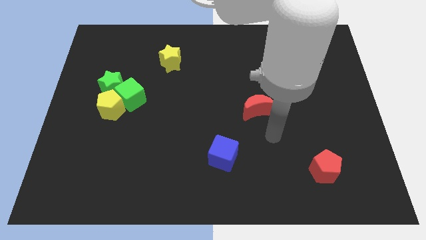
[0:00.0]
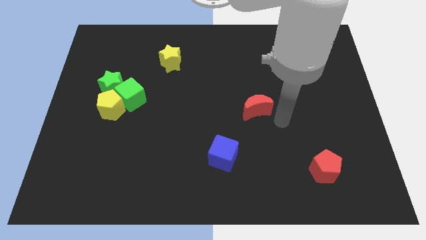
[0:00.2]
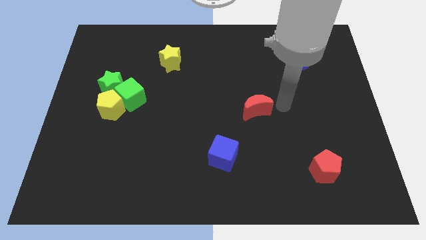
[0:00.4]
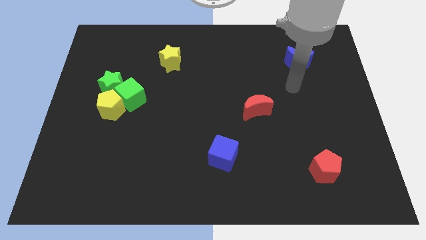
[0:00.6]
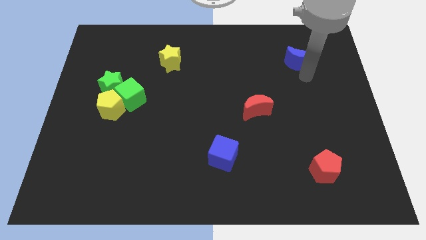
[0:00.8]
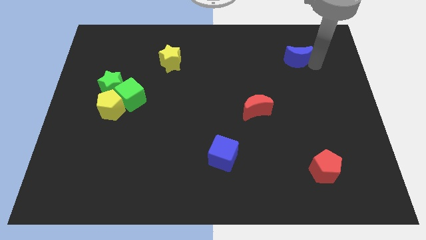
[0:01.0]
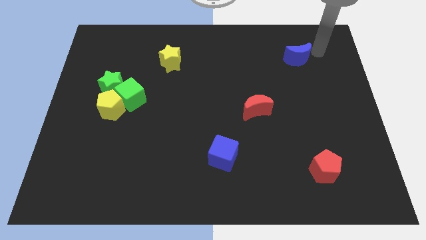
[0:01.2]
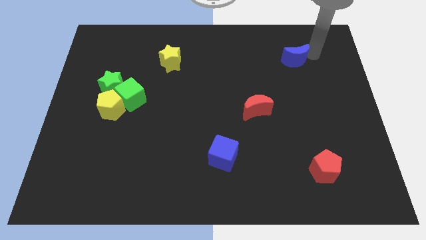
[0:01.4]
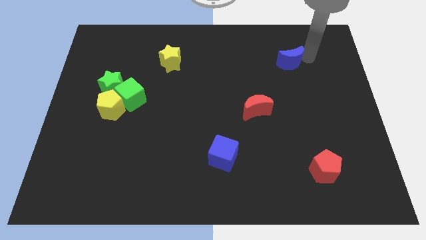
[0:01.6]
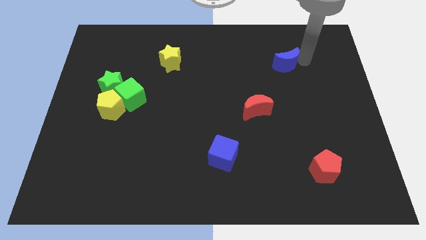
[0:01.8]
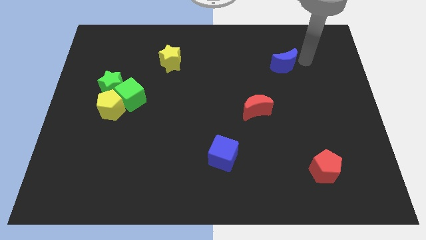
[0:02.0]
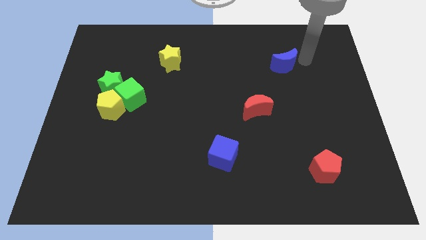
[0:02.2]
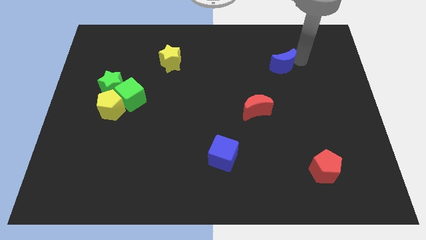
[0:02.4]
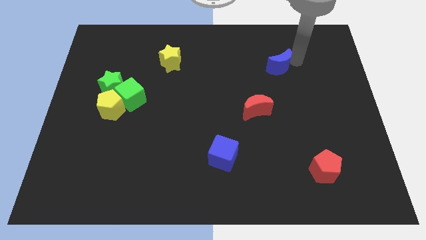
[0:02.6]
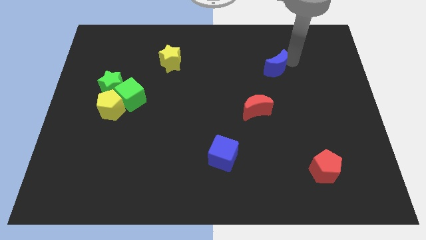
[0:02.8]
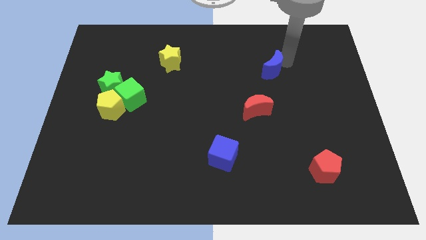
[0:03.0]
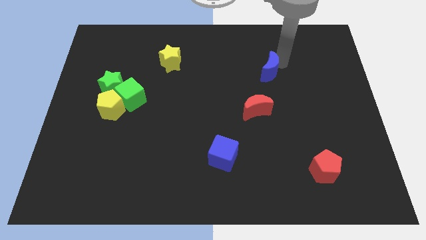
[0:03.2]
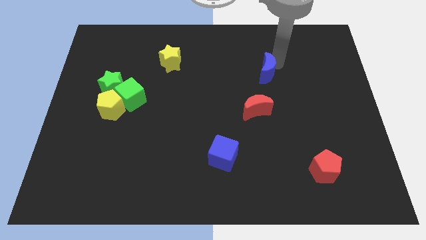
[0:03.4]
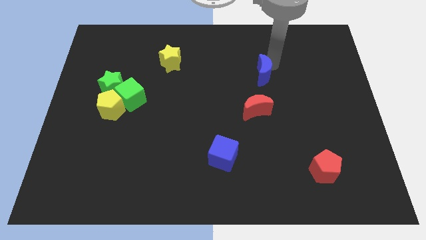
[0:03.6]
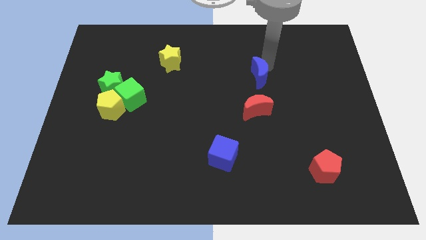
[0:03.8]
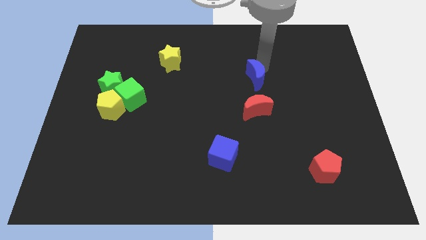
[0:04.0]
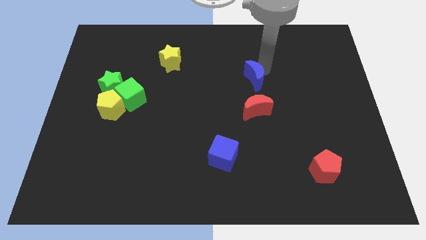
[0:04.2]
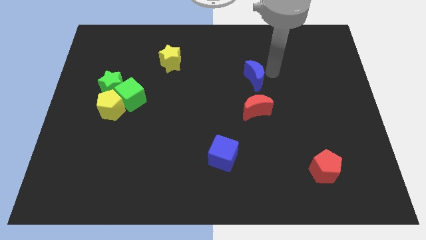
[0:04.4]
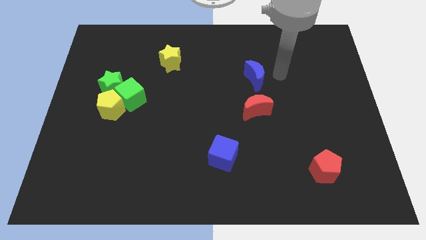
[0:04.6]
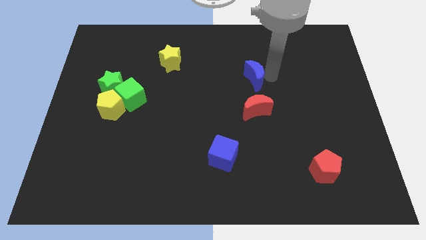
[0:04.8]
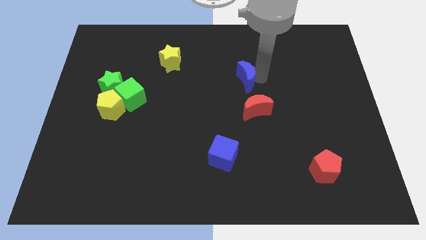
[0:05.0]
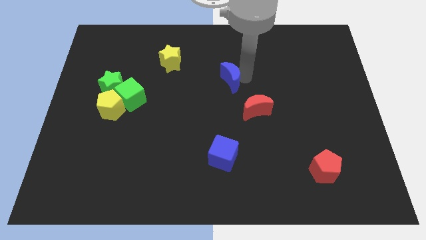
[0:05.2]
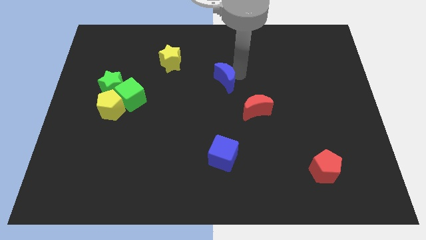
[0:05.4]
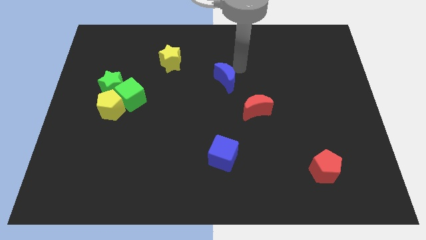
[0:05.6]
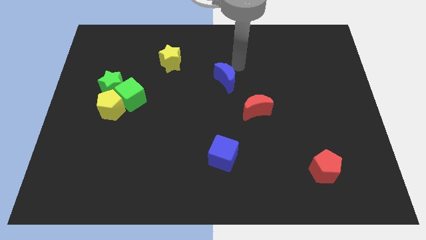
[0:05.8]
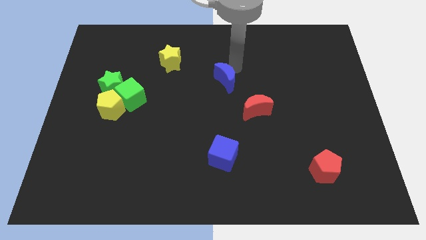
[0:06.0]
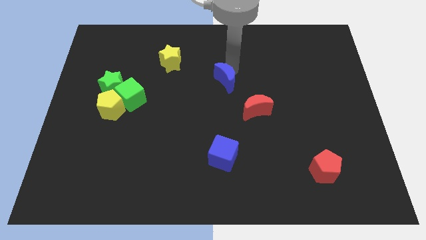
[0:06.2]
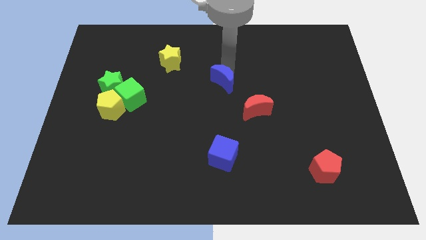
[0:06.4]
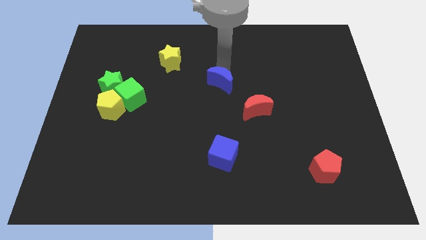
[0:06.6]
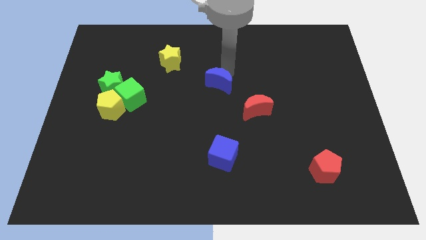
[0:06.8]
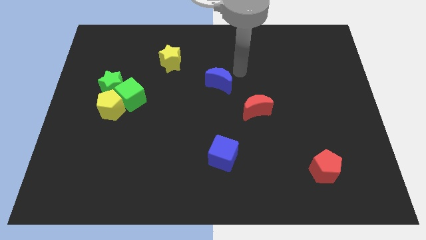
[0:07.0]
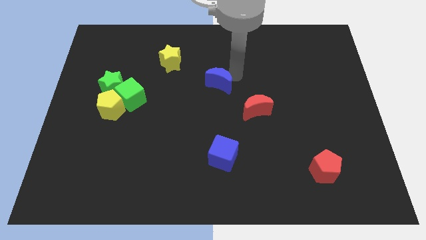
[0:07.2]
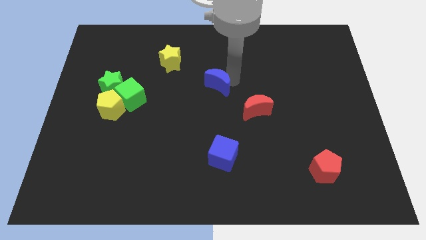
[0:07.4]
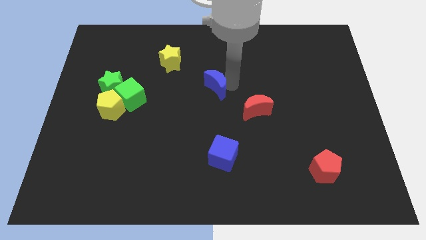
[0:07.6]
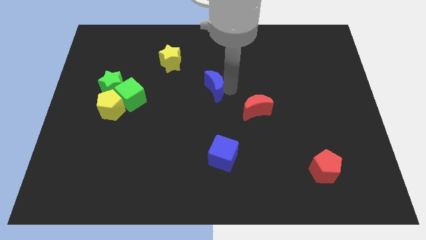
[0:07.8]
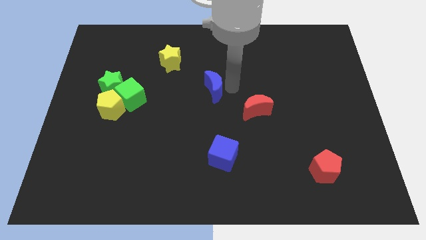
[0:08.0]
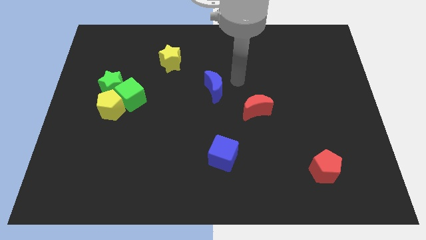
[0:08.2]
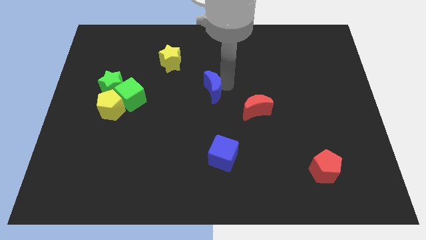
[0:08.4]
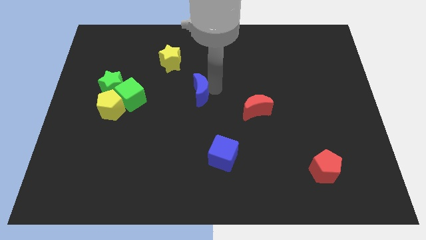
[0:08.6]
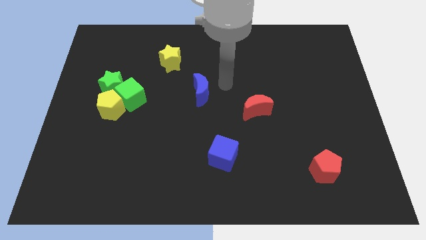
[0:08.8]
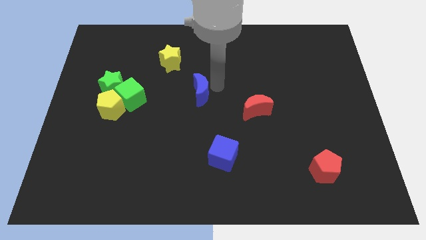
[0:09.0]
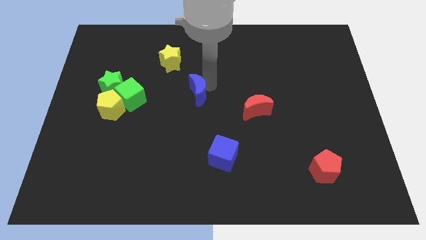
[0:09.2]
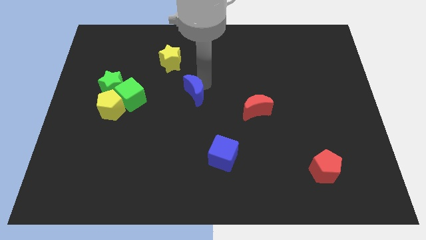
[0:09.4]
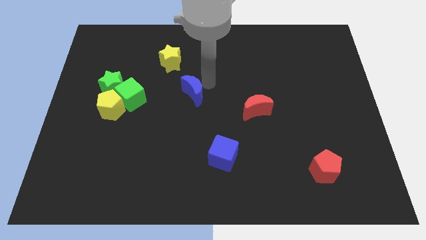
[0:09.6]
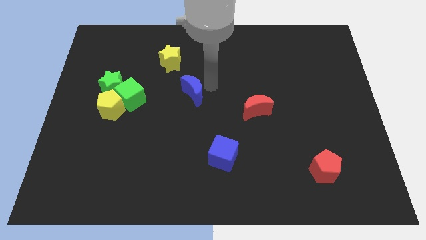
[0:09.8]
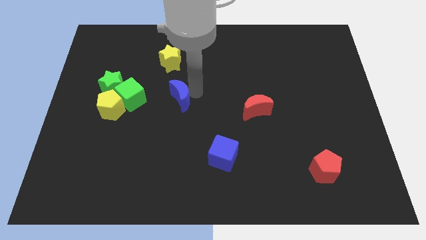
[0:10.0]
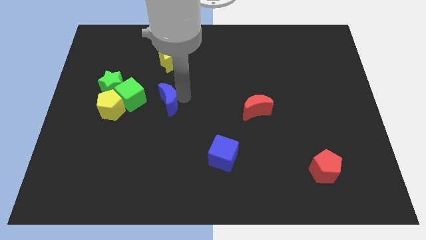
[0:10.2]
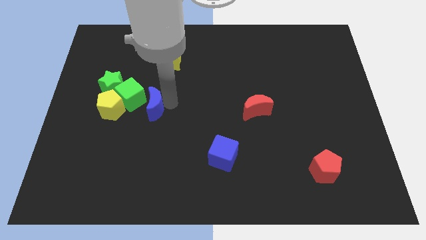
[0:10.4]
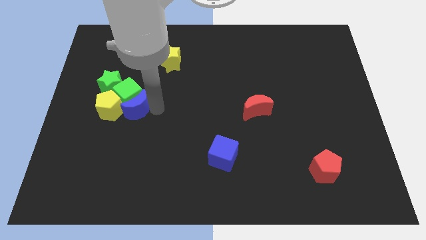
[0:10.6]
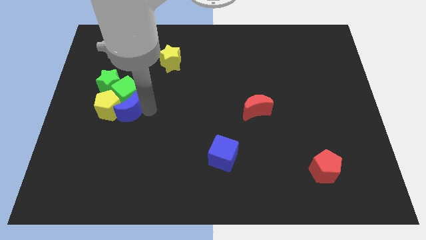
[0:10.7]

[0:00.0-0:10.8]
move the blue moon next to the yellow pentagon
